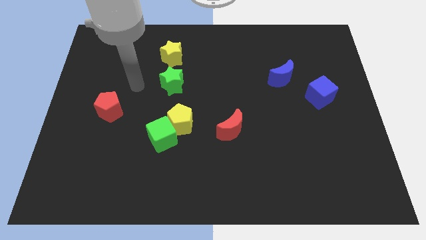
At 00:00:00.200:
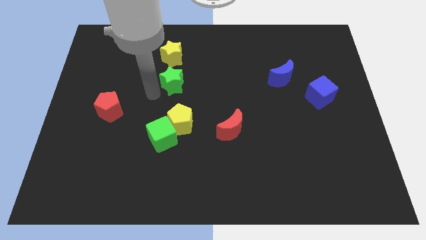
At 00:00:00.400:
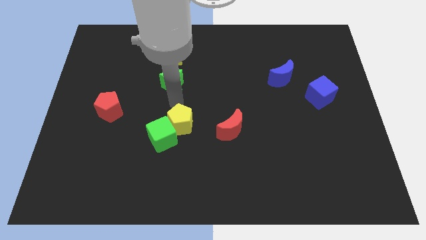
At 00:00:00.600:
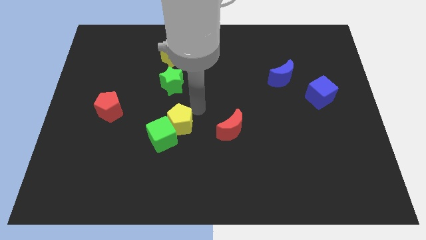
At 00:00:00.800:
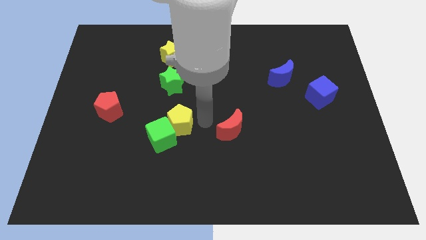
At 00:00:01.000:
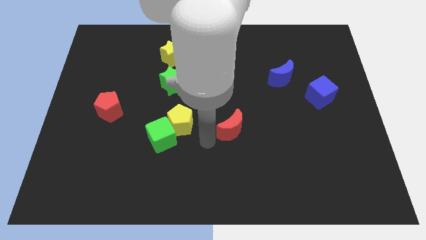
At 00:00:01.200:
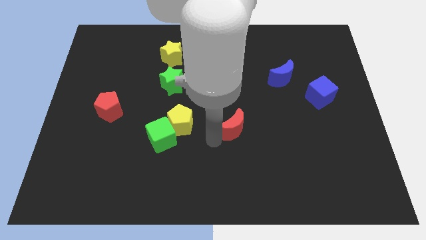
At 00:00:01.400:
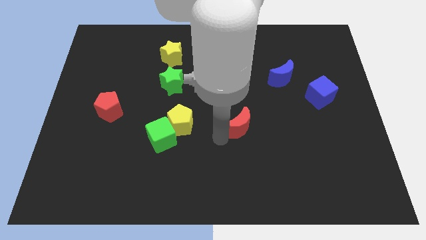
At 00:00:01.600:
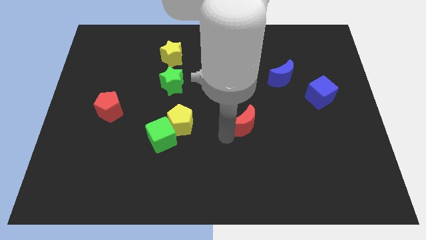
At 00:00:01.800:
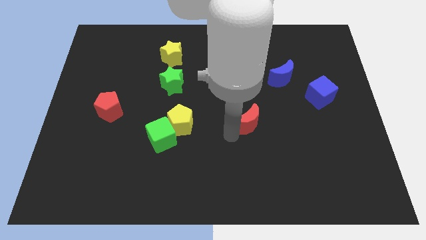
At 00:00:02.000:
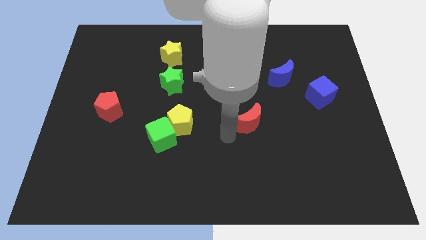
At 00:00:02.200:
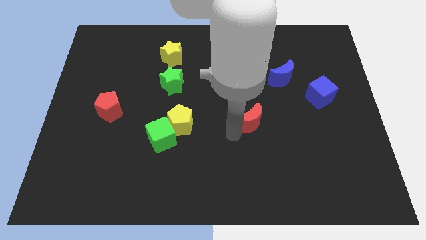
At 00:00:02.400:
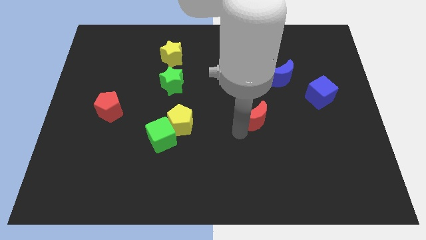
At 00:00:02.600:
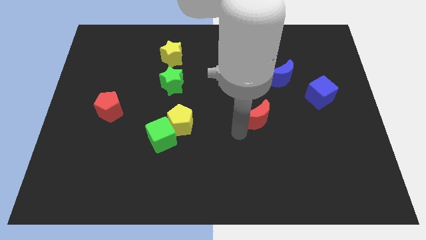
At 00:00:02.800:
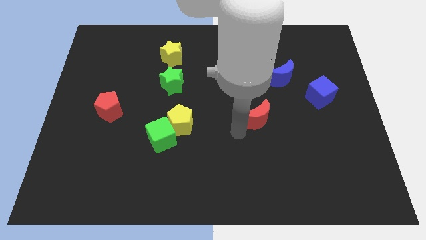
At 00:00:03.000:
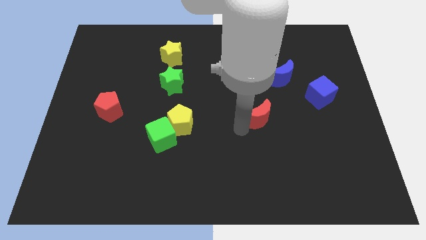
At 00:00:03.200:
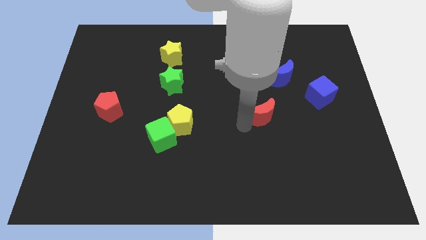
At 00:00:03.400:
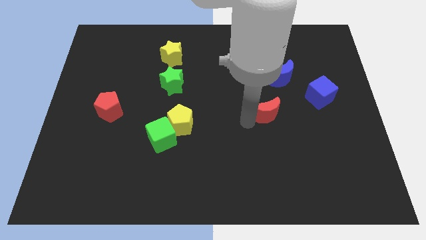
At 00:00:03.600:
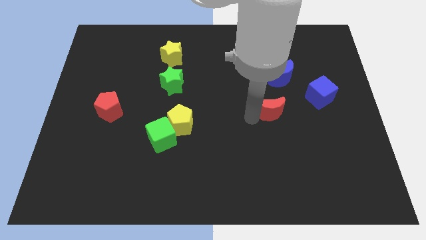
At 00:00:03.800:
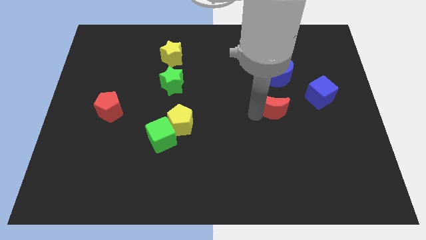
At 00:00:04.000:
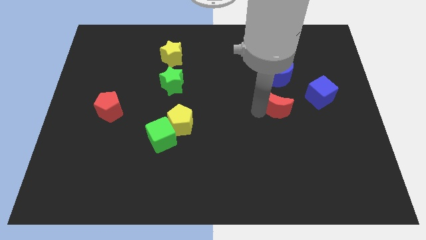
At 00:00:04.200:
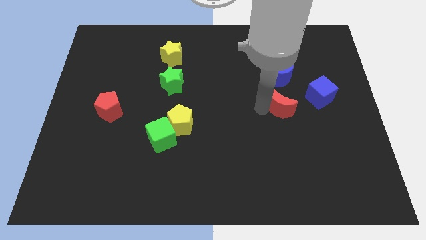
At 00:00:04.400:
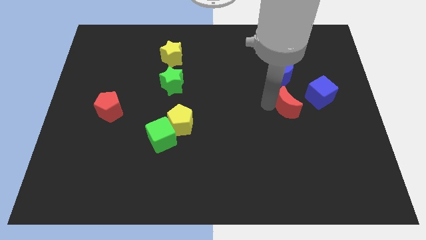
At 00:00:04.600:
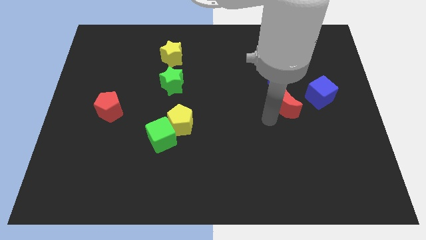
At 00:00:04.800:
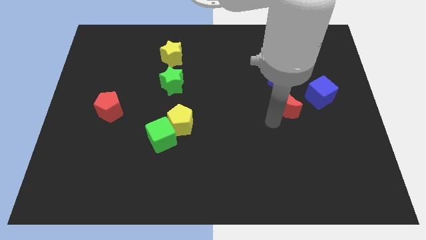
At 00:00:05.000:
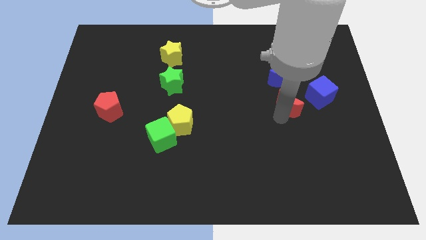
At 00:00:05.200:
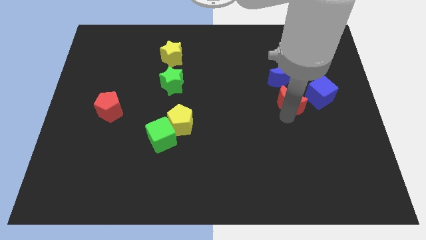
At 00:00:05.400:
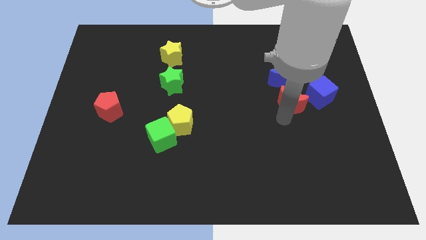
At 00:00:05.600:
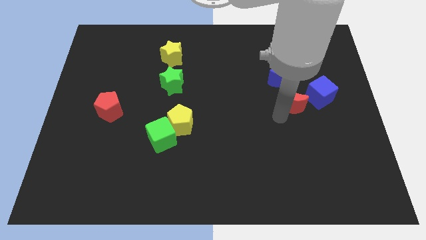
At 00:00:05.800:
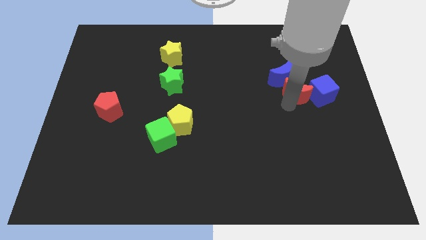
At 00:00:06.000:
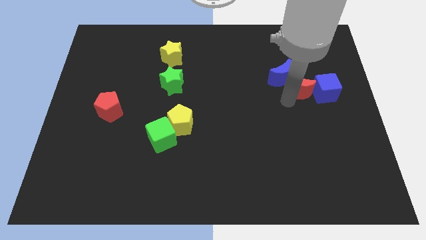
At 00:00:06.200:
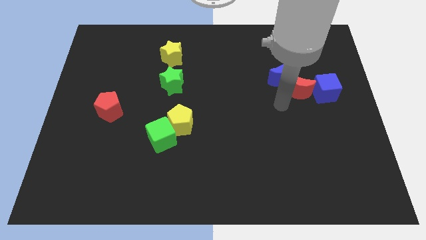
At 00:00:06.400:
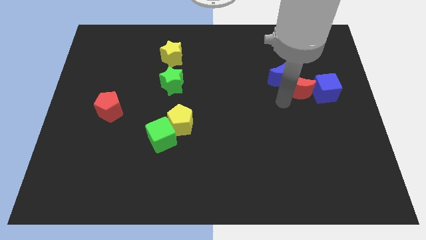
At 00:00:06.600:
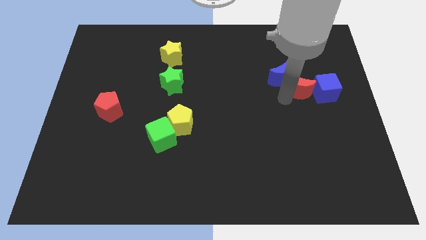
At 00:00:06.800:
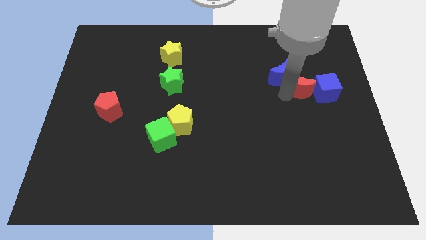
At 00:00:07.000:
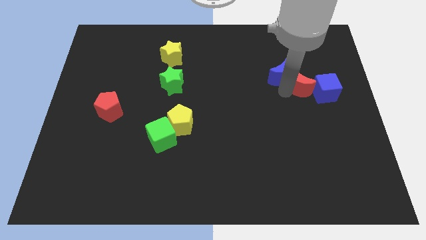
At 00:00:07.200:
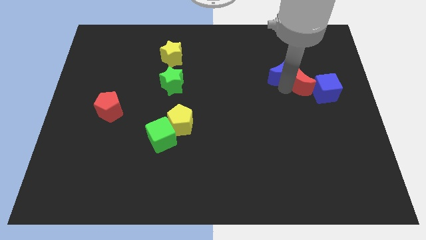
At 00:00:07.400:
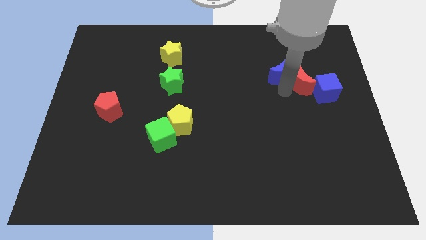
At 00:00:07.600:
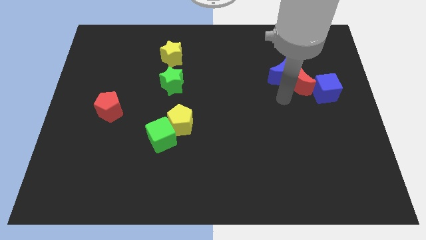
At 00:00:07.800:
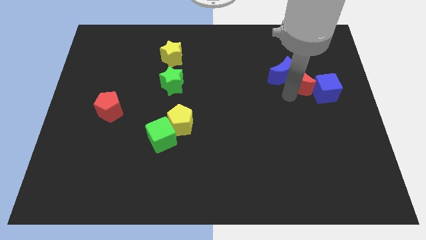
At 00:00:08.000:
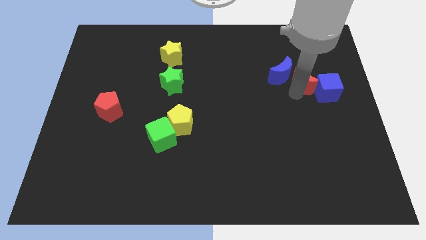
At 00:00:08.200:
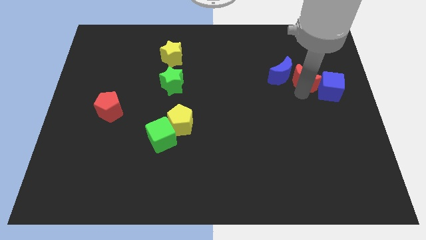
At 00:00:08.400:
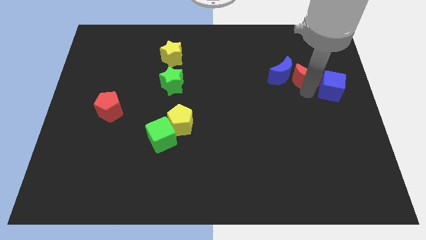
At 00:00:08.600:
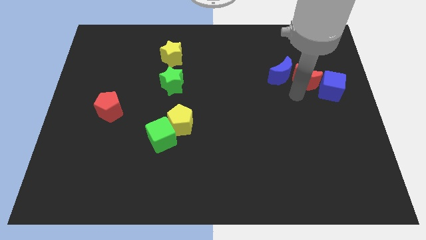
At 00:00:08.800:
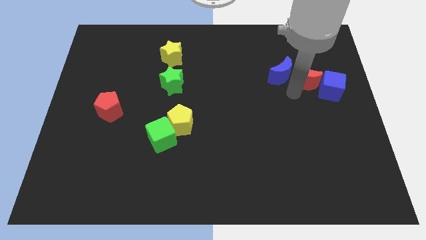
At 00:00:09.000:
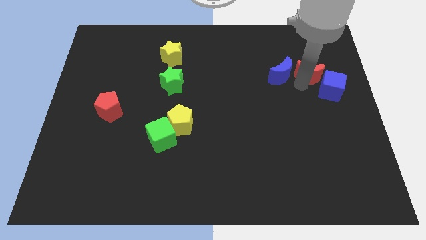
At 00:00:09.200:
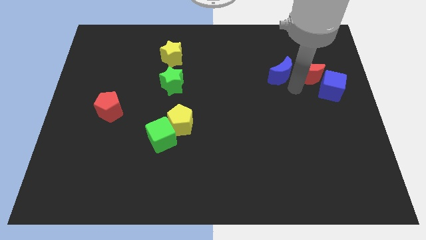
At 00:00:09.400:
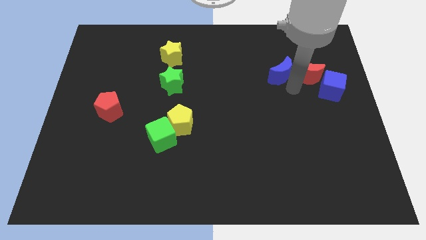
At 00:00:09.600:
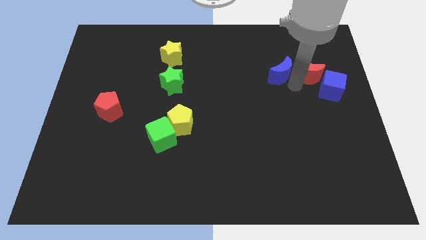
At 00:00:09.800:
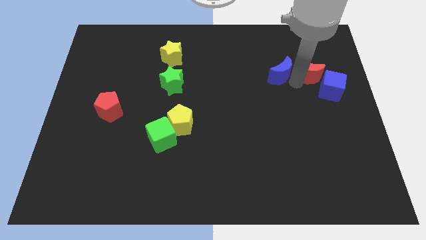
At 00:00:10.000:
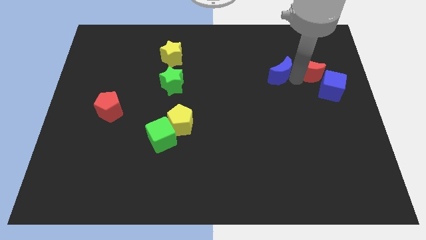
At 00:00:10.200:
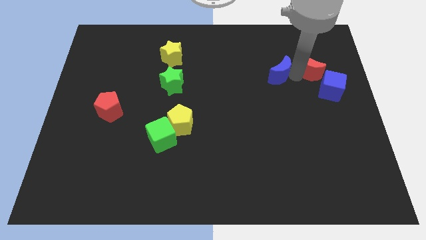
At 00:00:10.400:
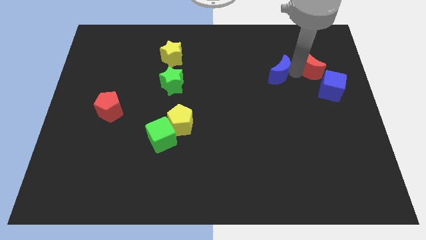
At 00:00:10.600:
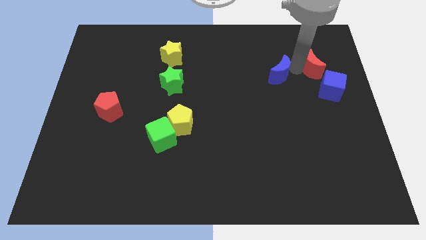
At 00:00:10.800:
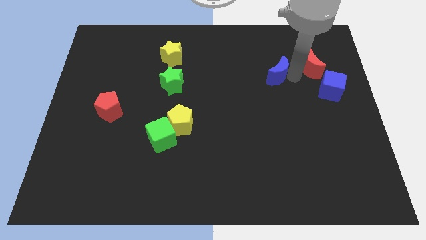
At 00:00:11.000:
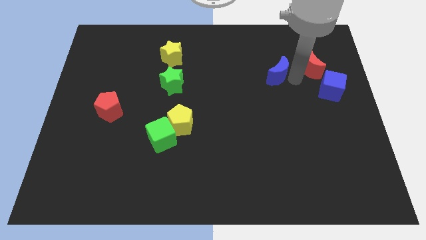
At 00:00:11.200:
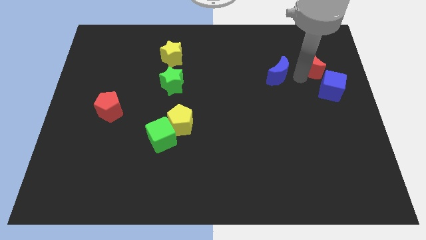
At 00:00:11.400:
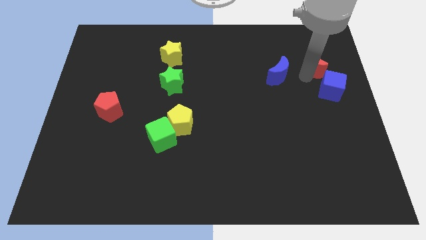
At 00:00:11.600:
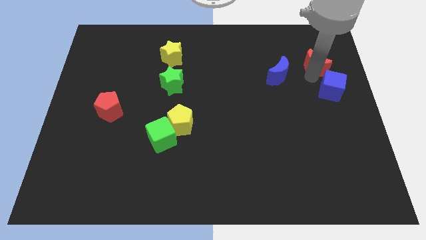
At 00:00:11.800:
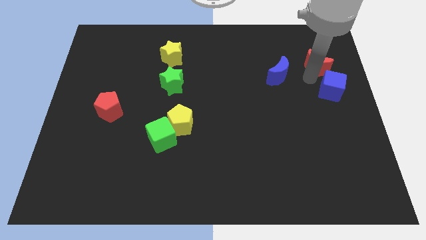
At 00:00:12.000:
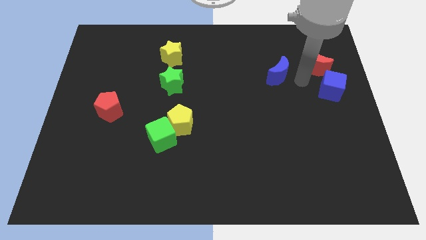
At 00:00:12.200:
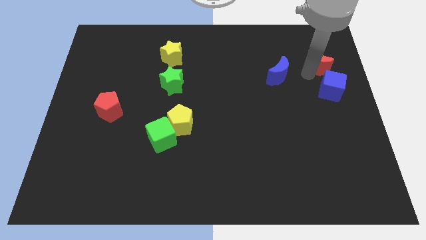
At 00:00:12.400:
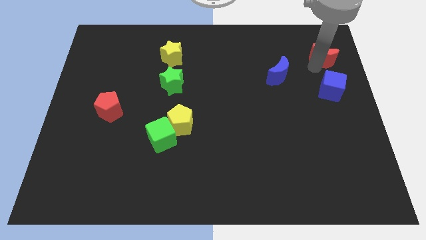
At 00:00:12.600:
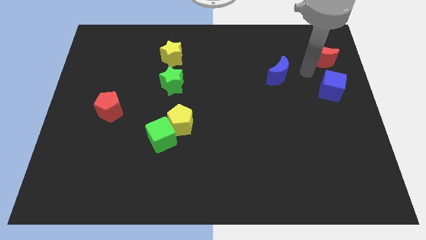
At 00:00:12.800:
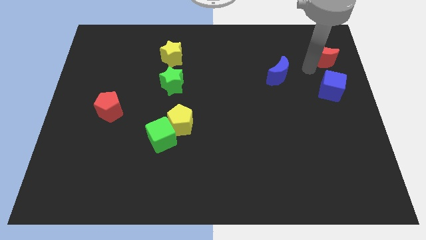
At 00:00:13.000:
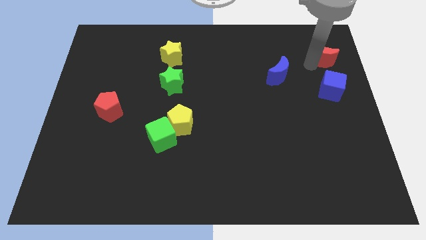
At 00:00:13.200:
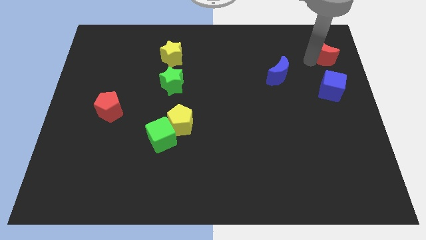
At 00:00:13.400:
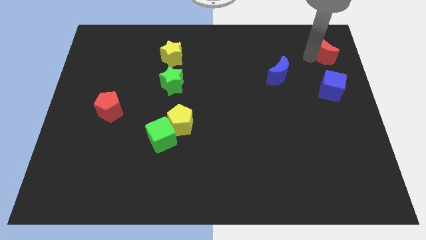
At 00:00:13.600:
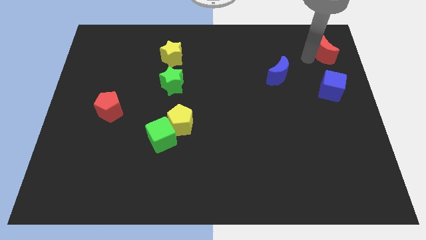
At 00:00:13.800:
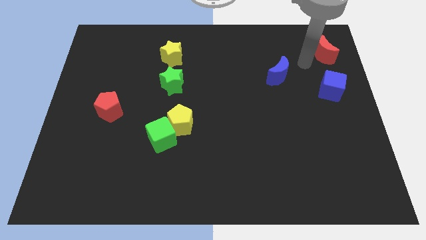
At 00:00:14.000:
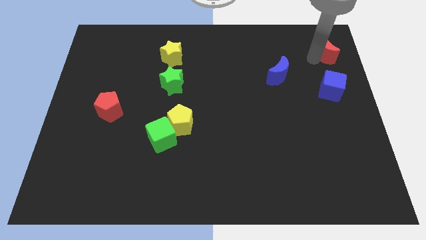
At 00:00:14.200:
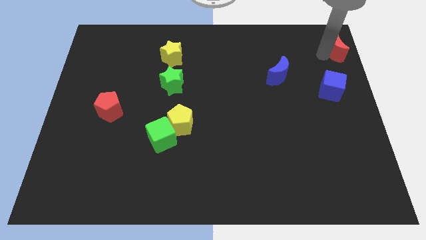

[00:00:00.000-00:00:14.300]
push the red moon to the top right corner
